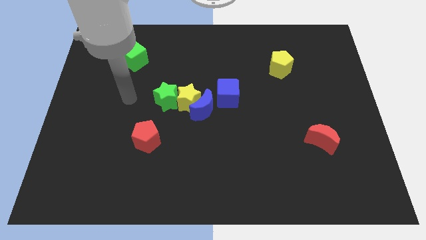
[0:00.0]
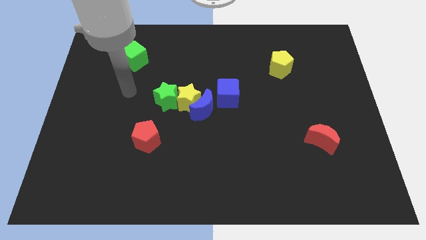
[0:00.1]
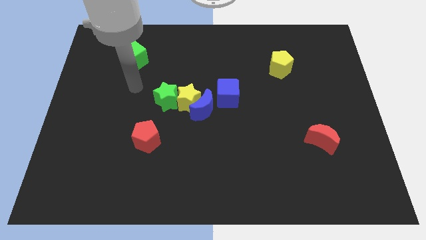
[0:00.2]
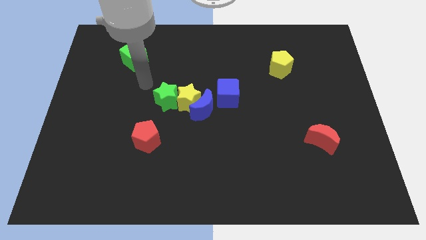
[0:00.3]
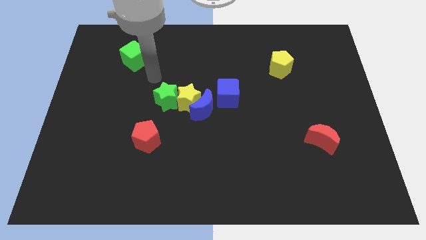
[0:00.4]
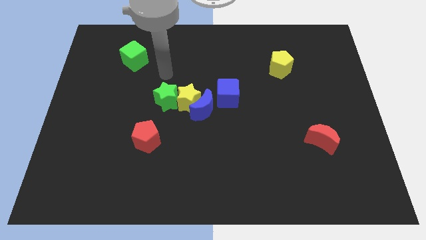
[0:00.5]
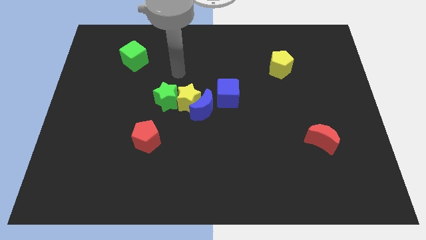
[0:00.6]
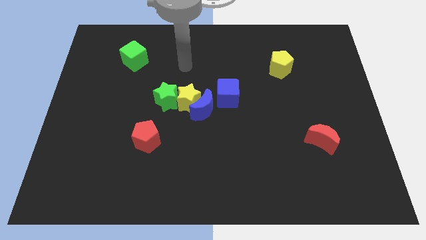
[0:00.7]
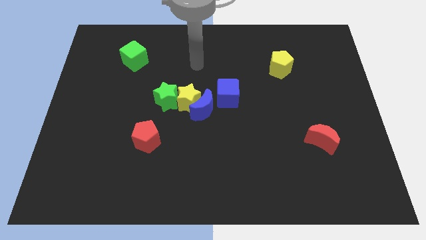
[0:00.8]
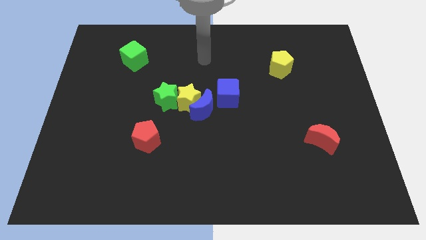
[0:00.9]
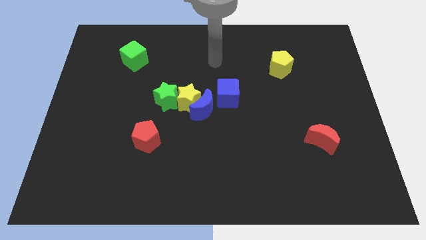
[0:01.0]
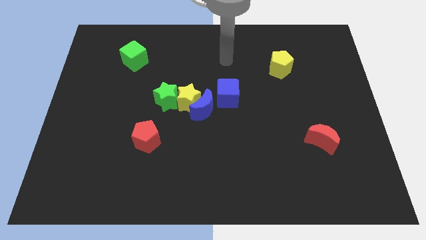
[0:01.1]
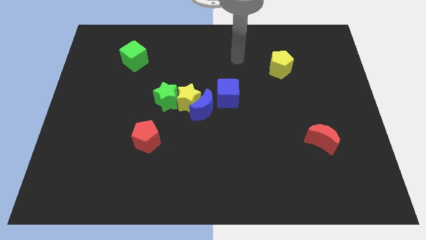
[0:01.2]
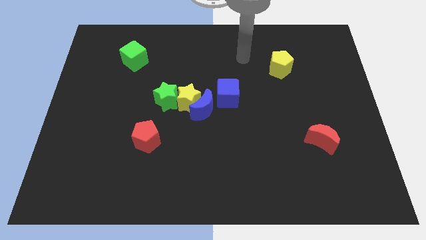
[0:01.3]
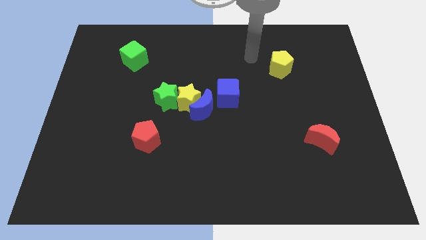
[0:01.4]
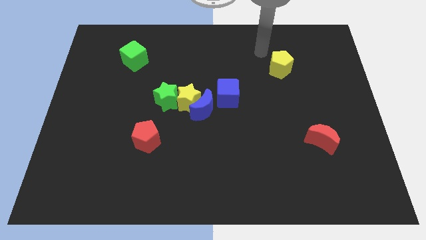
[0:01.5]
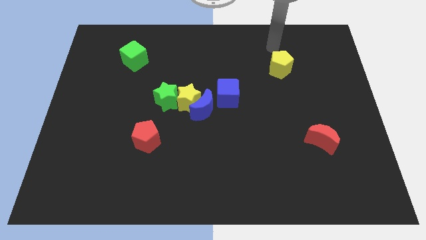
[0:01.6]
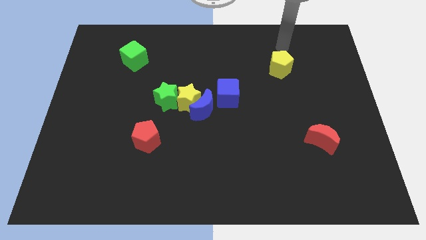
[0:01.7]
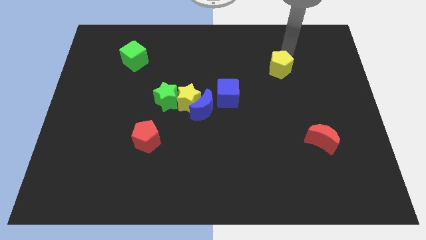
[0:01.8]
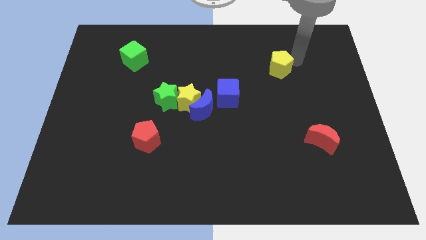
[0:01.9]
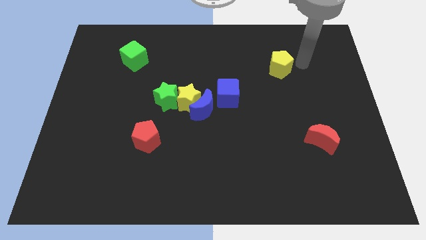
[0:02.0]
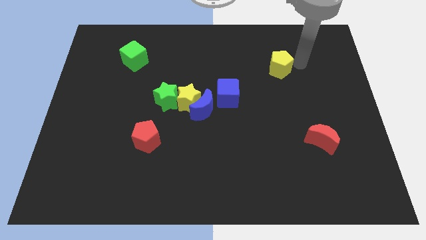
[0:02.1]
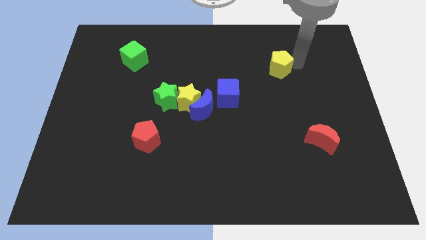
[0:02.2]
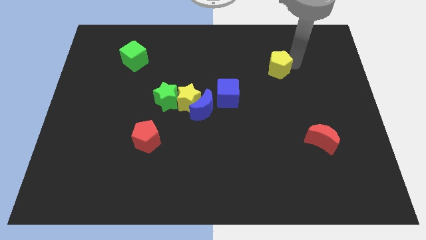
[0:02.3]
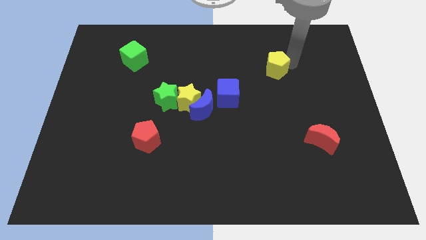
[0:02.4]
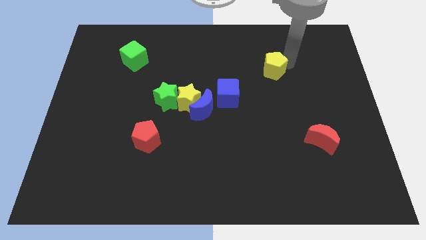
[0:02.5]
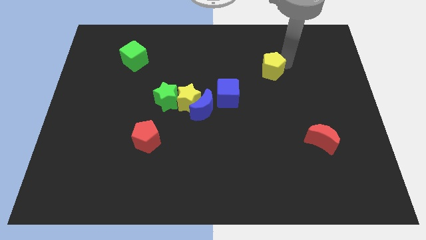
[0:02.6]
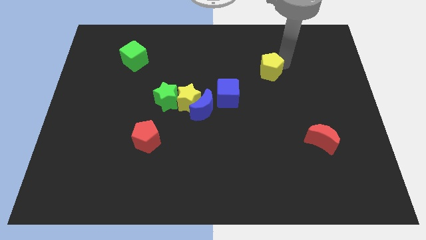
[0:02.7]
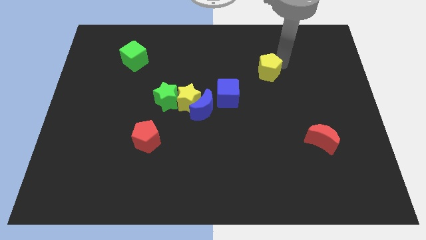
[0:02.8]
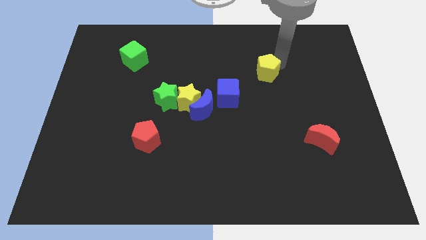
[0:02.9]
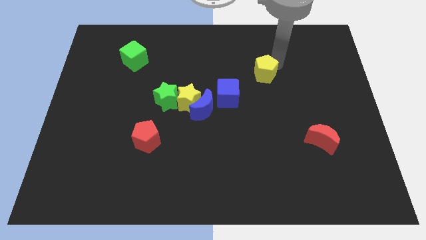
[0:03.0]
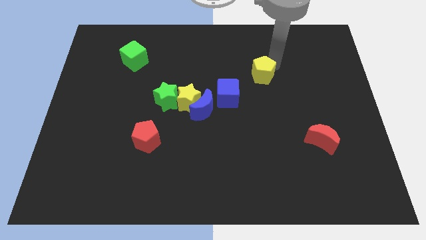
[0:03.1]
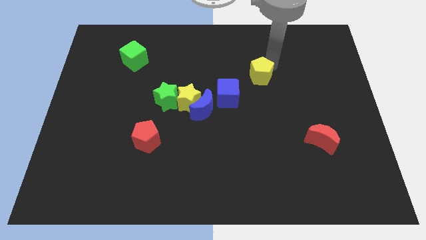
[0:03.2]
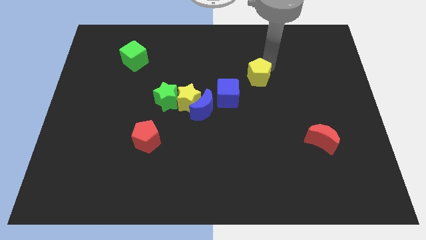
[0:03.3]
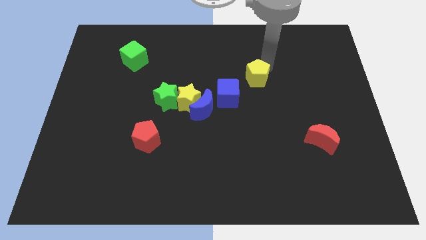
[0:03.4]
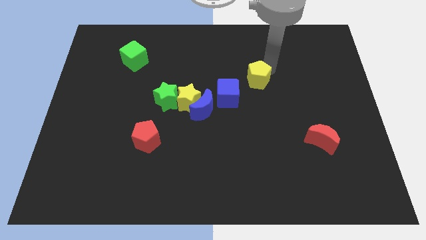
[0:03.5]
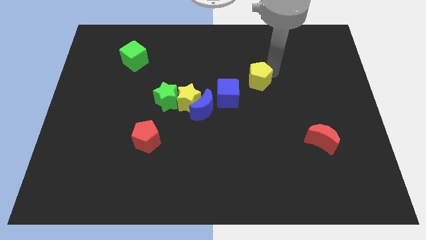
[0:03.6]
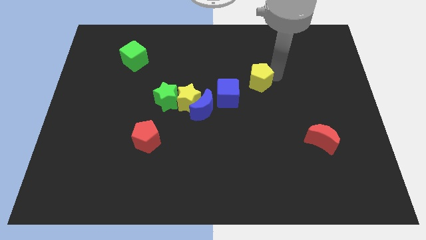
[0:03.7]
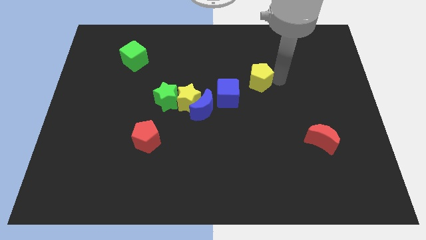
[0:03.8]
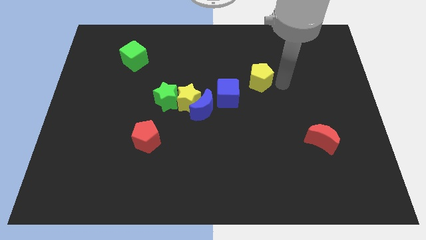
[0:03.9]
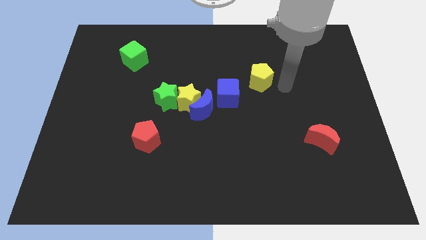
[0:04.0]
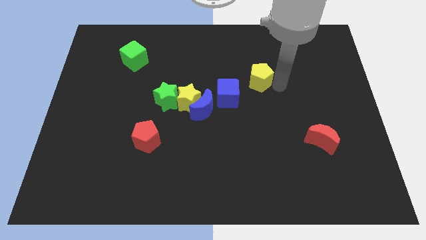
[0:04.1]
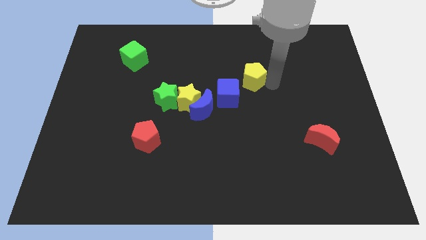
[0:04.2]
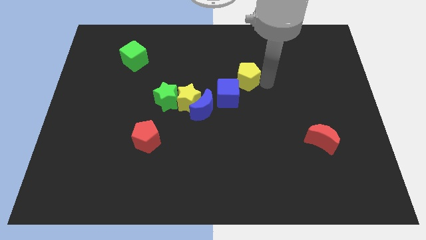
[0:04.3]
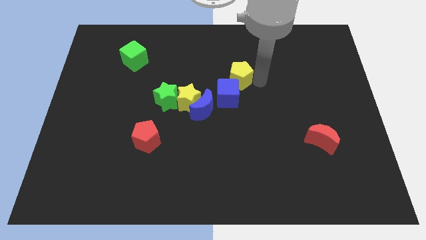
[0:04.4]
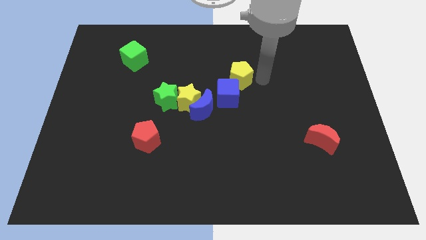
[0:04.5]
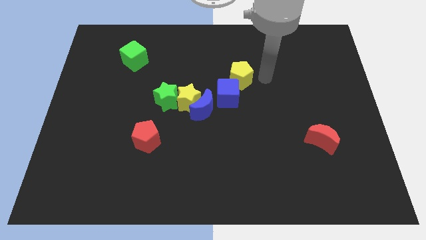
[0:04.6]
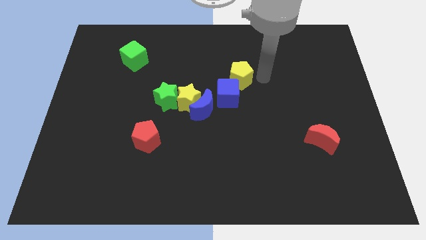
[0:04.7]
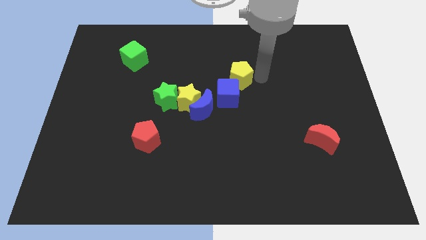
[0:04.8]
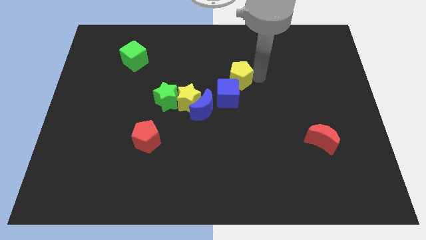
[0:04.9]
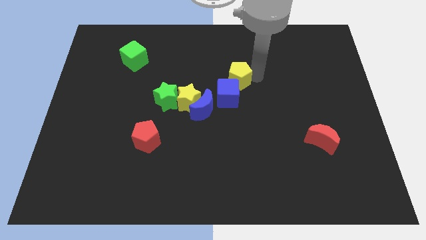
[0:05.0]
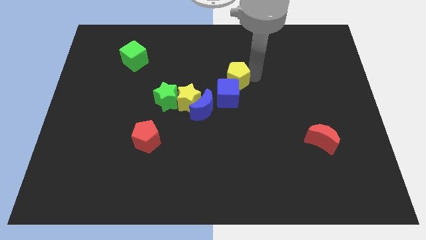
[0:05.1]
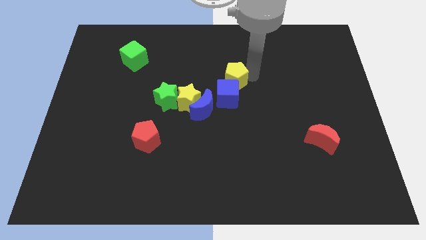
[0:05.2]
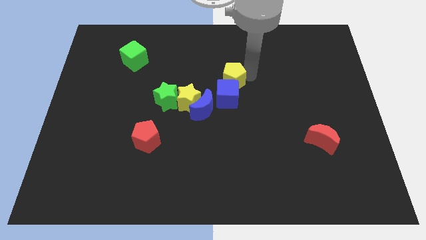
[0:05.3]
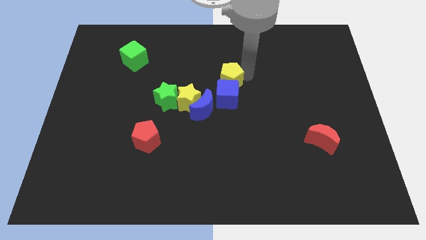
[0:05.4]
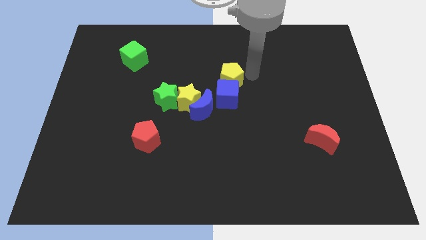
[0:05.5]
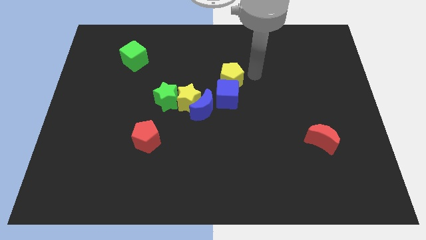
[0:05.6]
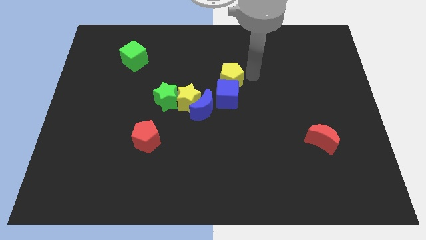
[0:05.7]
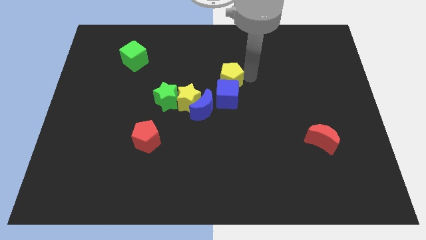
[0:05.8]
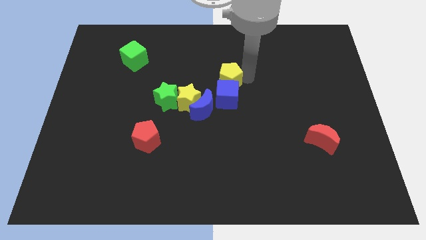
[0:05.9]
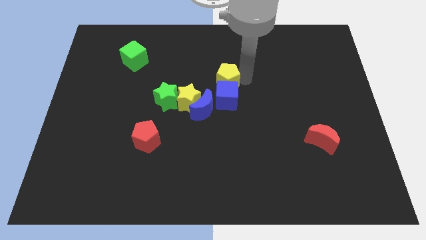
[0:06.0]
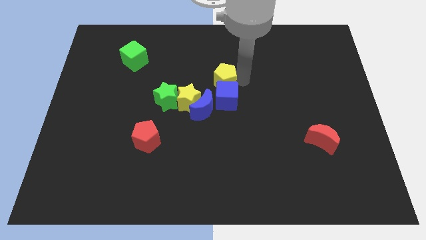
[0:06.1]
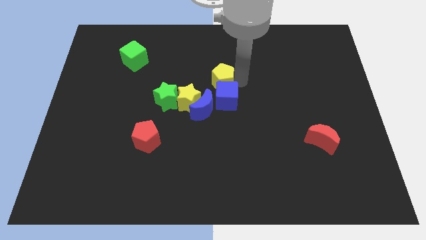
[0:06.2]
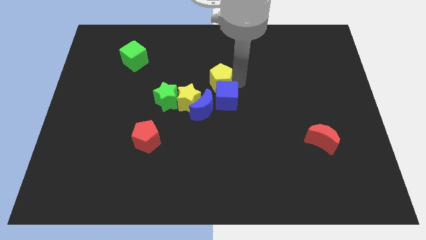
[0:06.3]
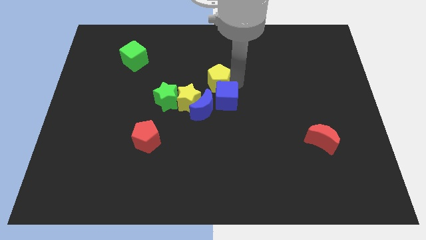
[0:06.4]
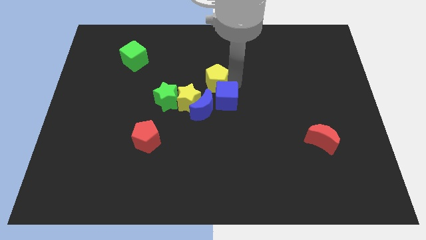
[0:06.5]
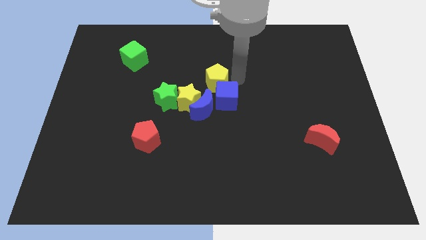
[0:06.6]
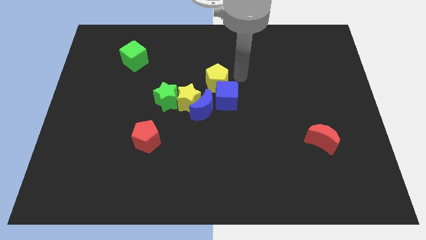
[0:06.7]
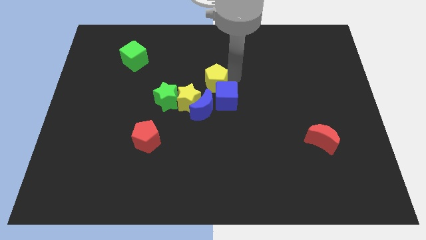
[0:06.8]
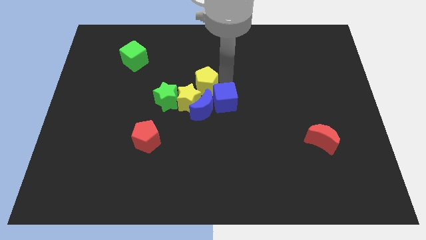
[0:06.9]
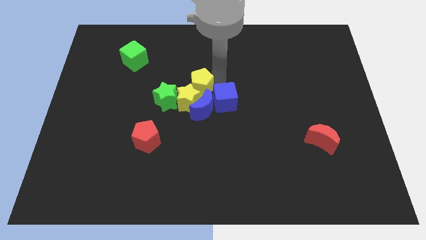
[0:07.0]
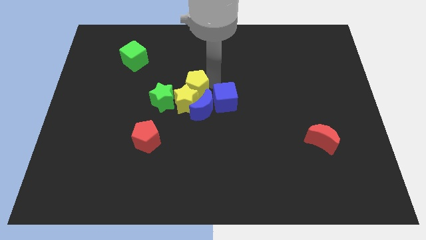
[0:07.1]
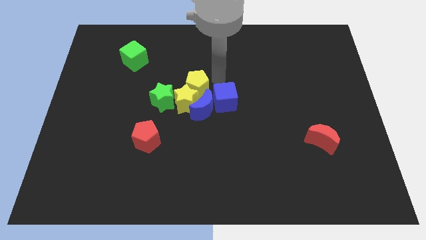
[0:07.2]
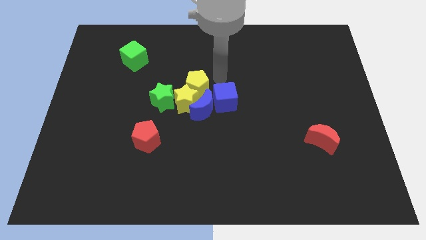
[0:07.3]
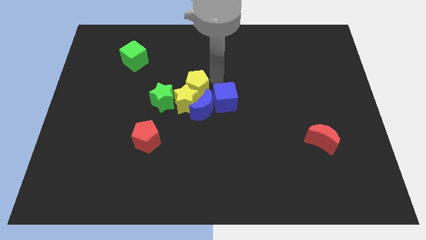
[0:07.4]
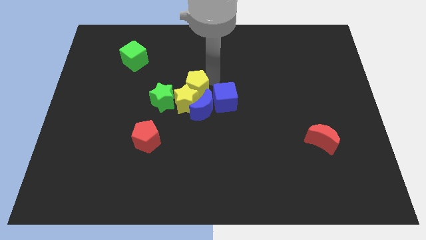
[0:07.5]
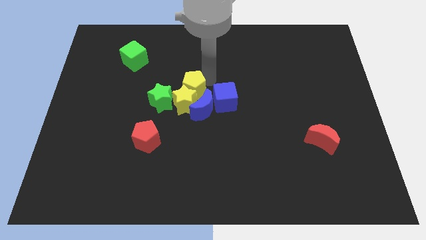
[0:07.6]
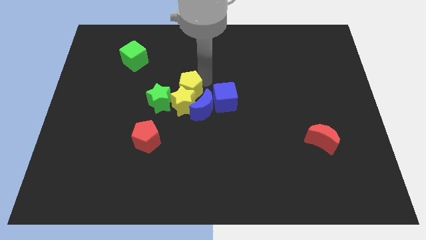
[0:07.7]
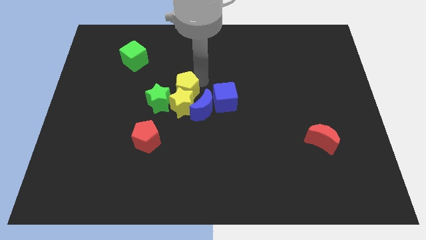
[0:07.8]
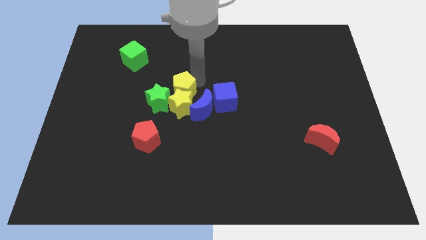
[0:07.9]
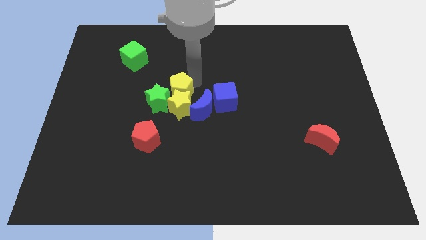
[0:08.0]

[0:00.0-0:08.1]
slide the yellow pentagon next to the green star
